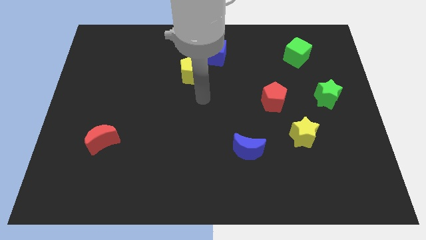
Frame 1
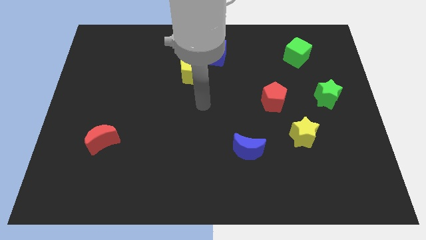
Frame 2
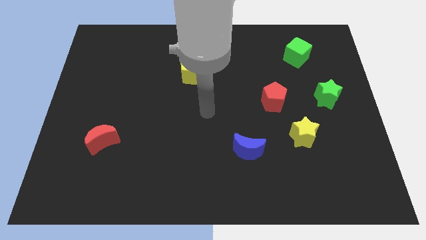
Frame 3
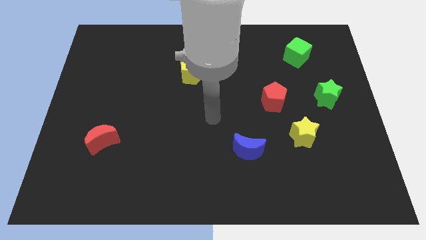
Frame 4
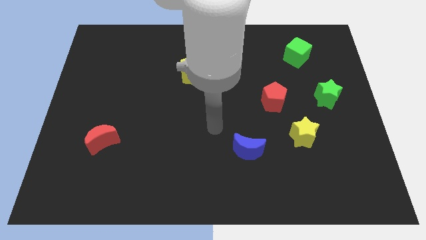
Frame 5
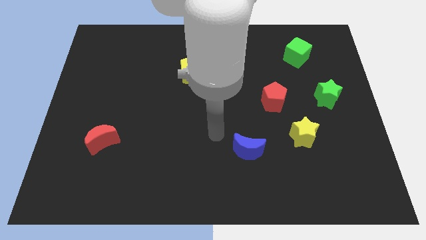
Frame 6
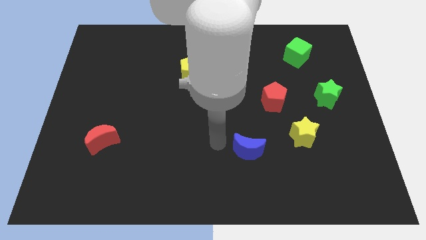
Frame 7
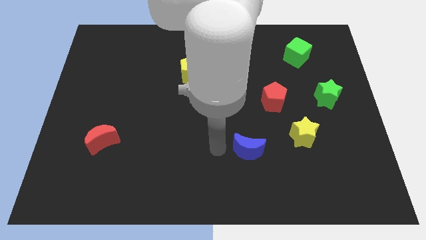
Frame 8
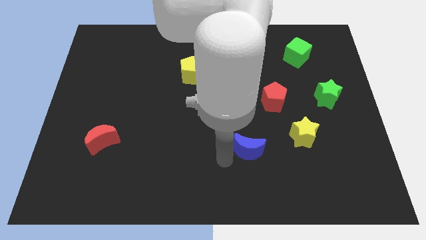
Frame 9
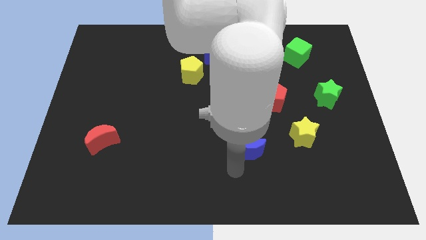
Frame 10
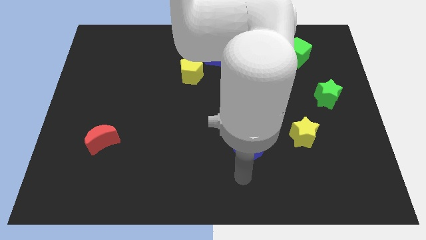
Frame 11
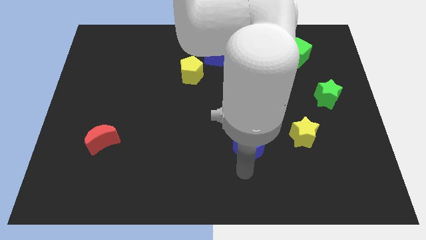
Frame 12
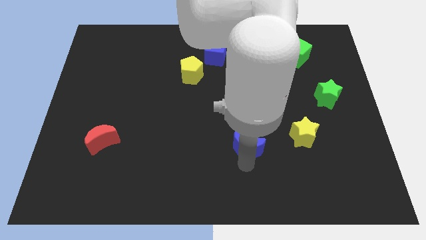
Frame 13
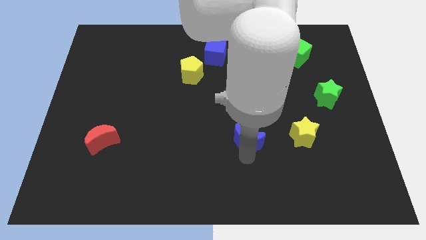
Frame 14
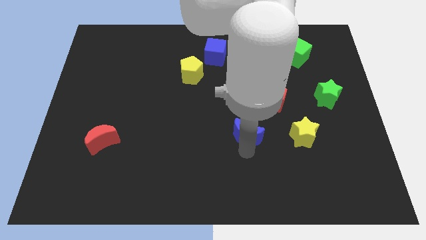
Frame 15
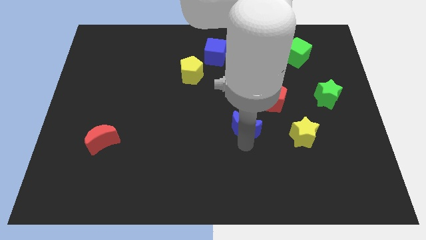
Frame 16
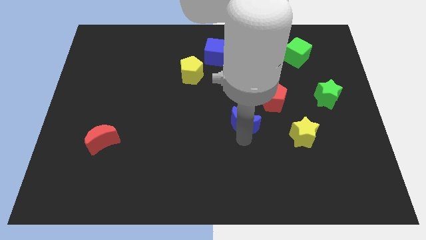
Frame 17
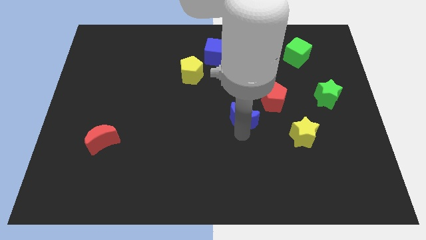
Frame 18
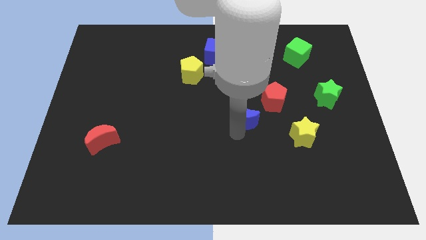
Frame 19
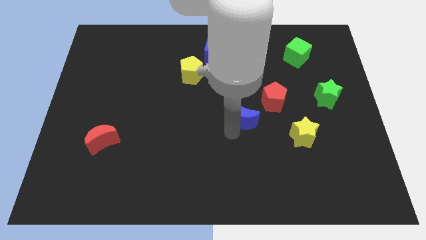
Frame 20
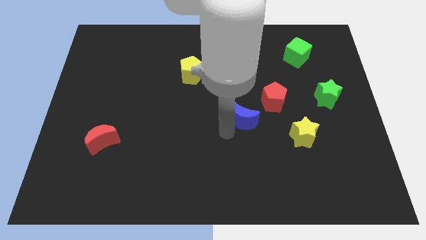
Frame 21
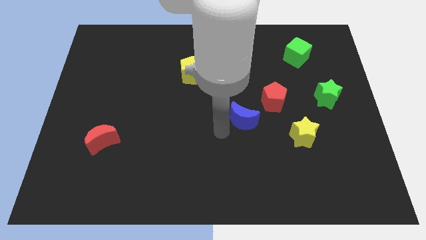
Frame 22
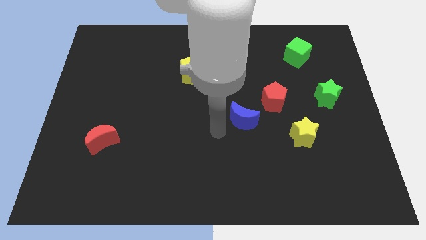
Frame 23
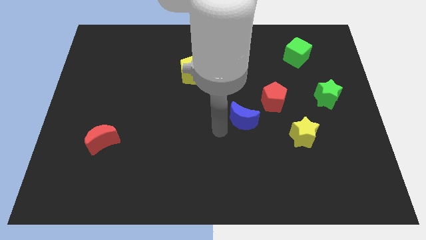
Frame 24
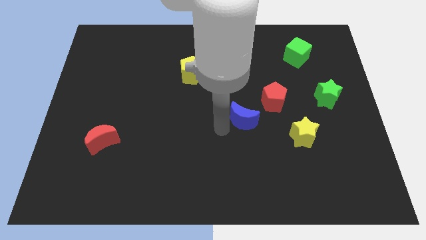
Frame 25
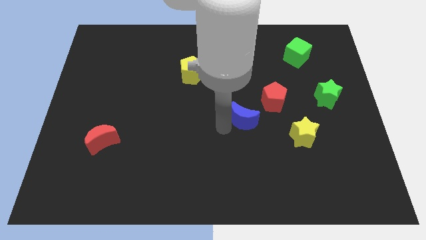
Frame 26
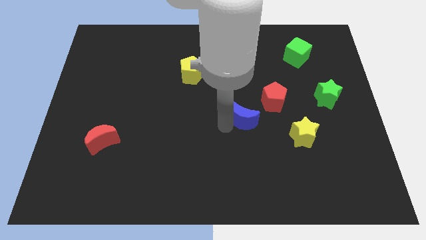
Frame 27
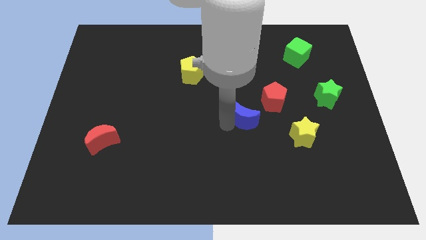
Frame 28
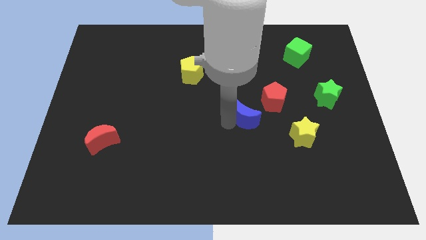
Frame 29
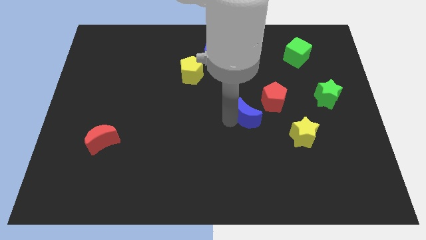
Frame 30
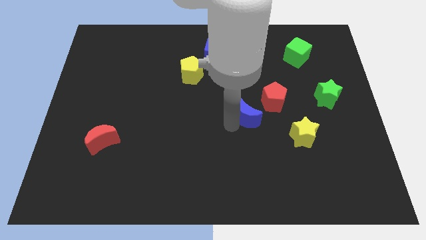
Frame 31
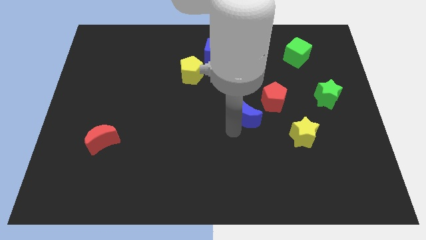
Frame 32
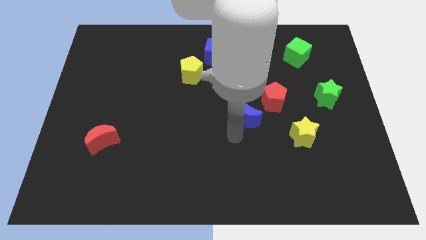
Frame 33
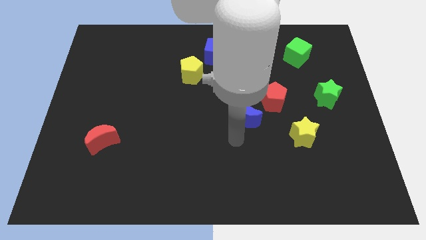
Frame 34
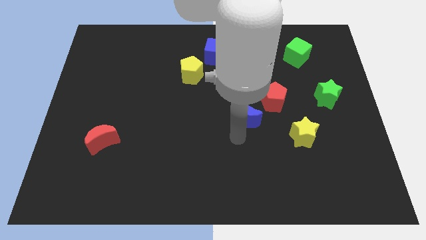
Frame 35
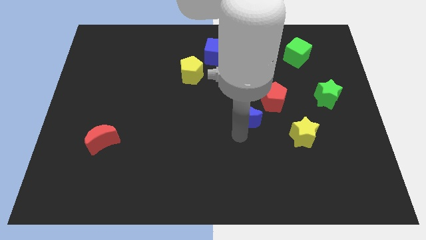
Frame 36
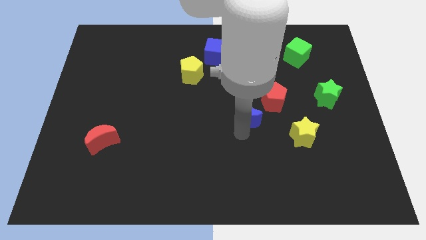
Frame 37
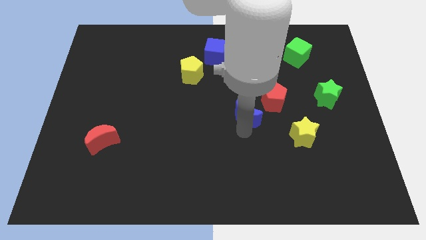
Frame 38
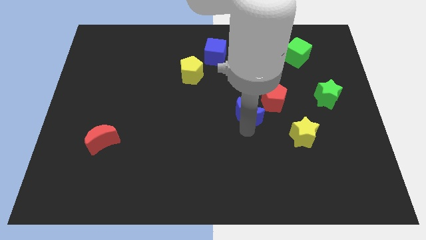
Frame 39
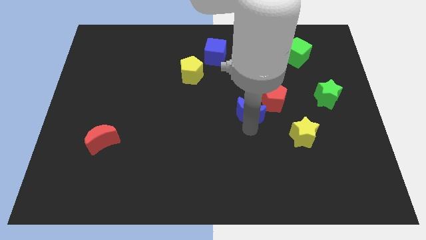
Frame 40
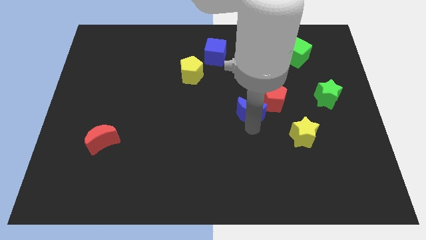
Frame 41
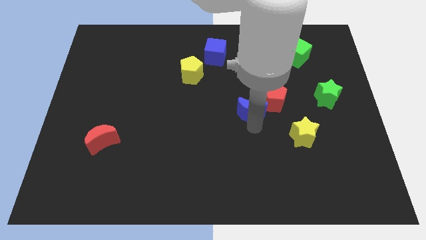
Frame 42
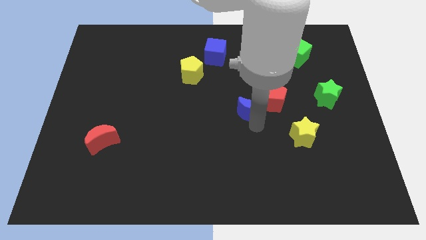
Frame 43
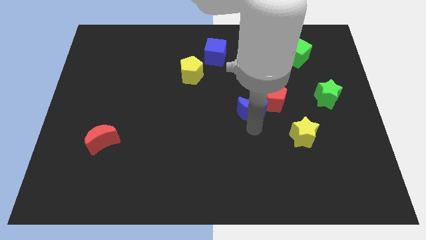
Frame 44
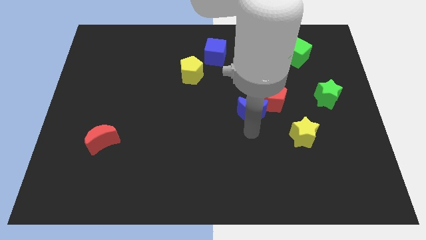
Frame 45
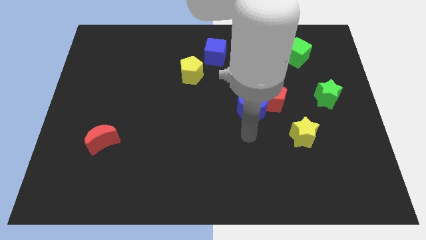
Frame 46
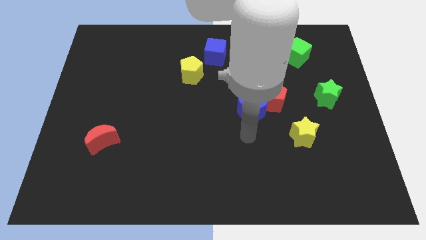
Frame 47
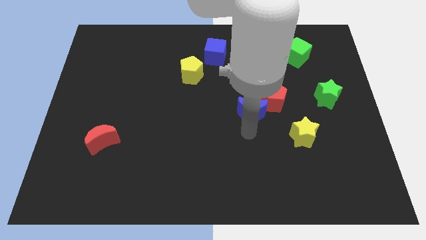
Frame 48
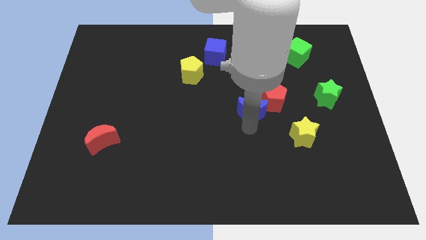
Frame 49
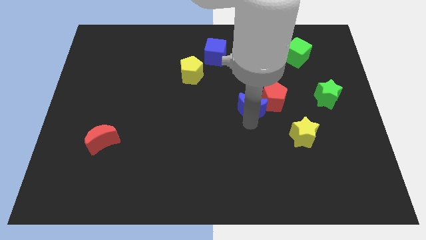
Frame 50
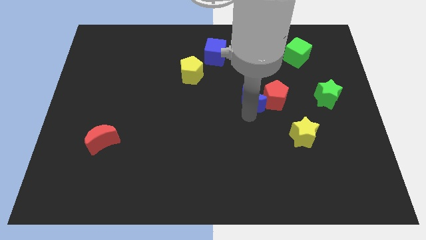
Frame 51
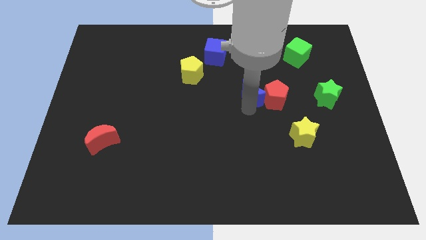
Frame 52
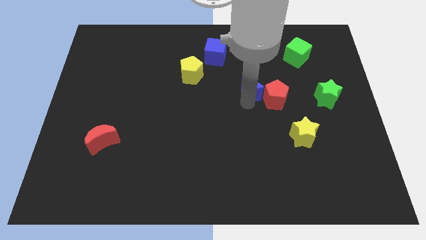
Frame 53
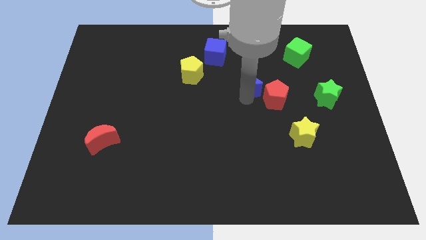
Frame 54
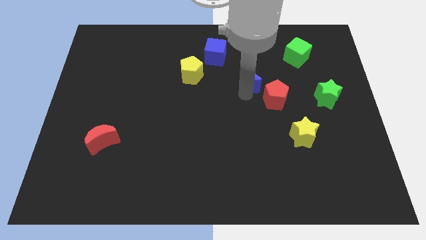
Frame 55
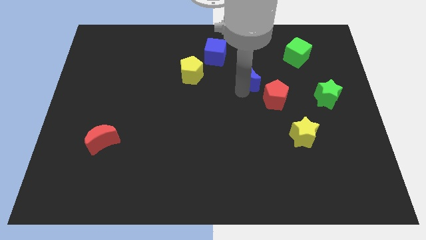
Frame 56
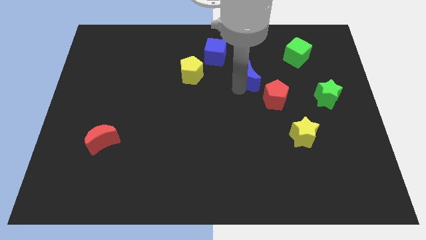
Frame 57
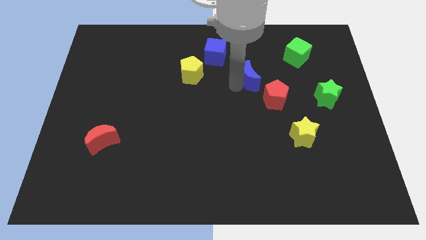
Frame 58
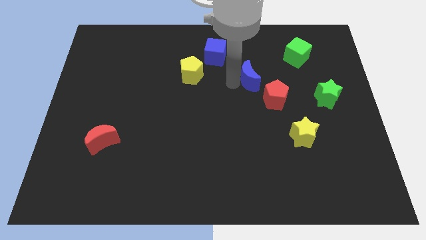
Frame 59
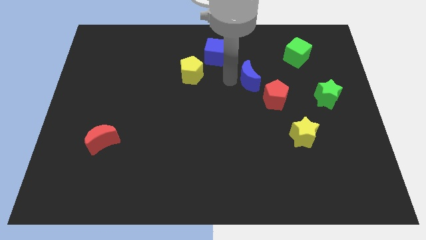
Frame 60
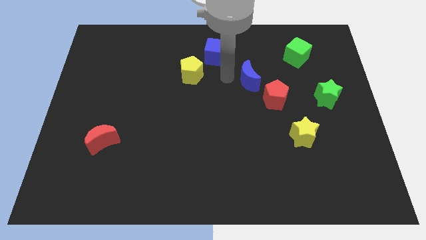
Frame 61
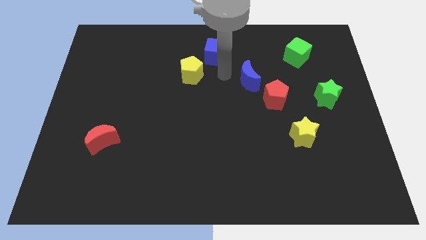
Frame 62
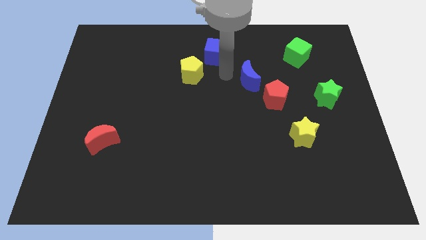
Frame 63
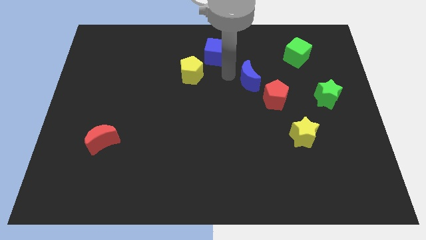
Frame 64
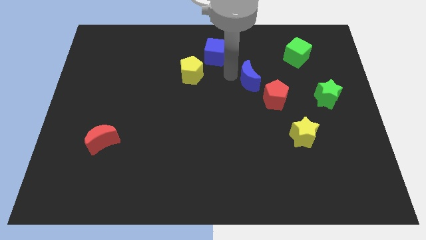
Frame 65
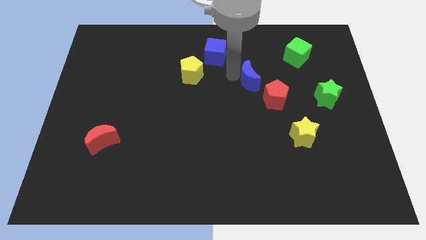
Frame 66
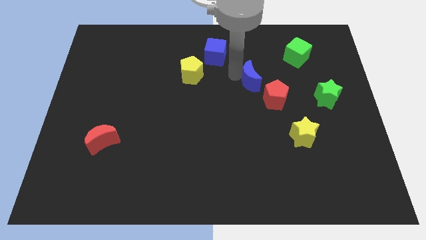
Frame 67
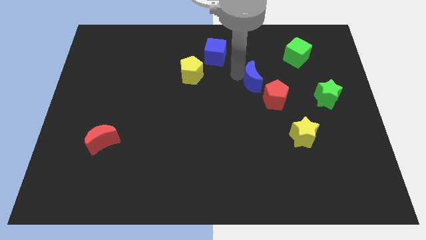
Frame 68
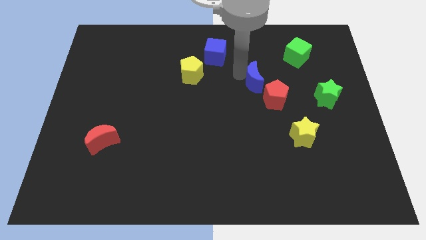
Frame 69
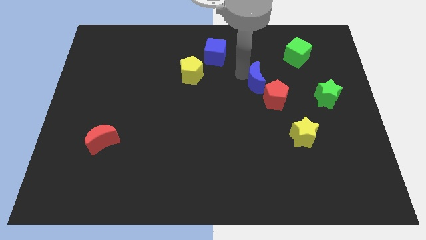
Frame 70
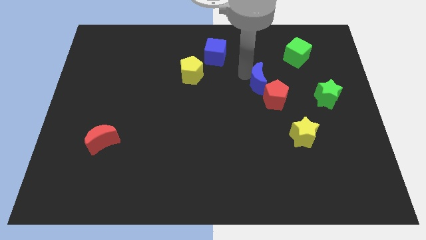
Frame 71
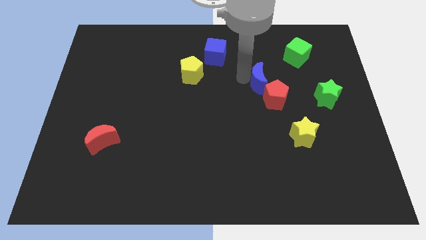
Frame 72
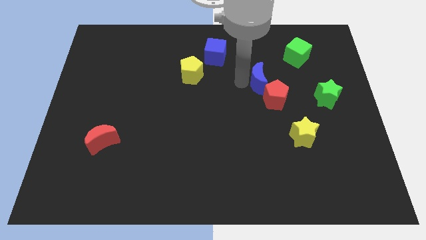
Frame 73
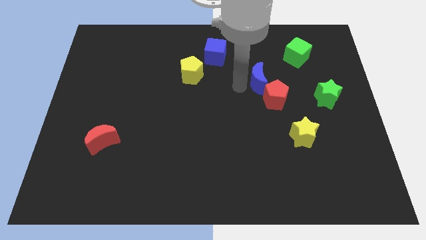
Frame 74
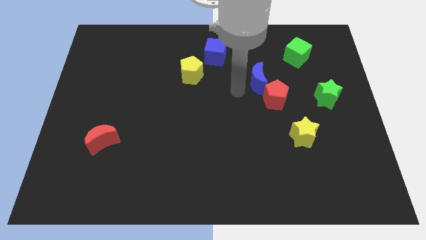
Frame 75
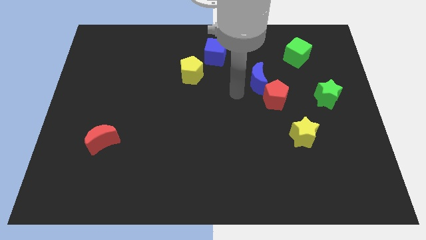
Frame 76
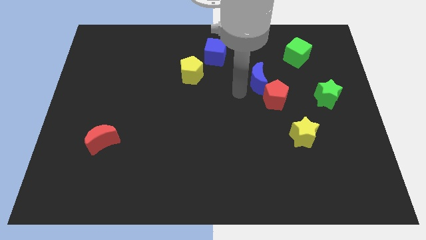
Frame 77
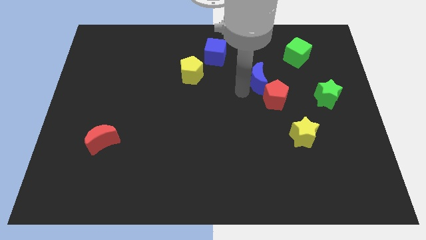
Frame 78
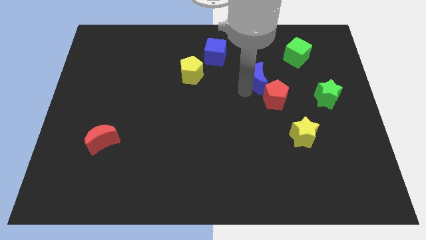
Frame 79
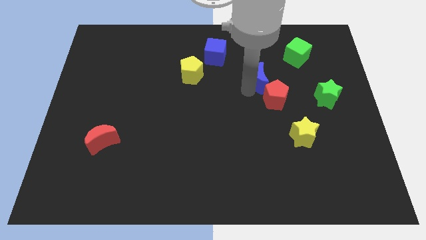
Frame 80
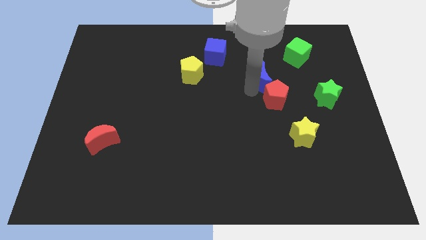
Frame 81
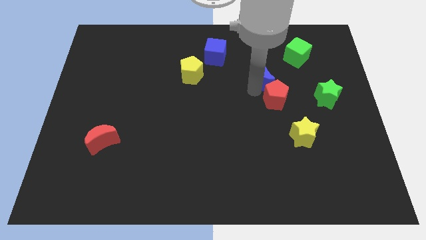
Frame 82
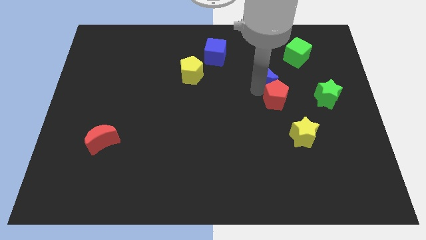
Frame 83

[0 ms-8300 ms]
slide the blue moon to the bottom left of the green cube
